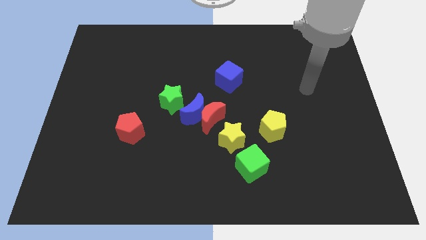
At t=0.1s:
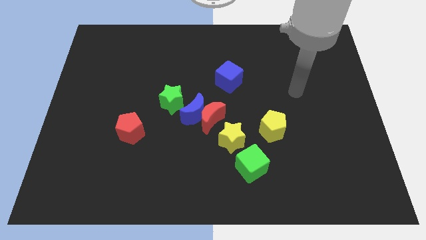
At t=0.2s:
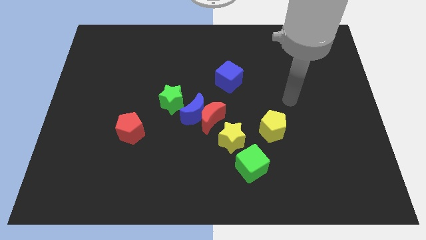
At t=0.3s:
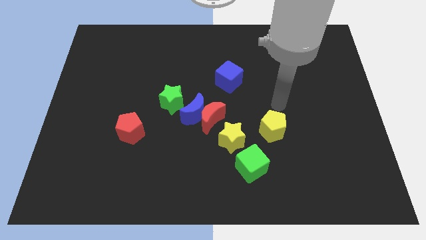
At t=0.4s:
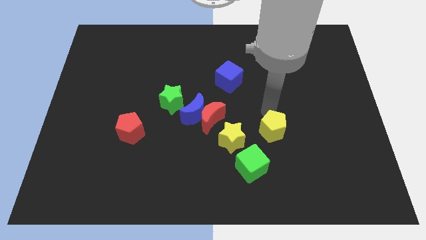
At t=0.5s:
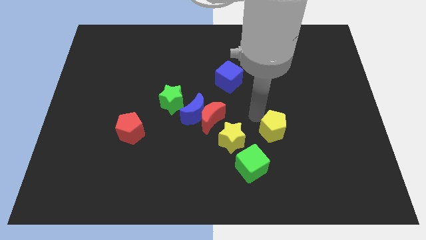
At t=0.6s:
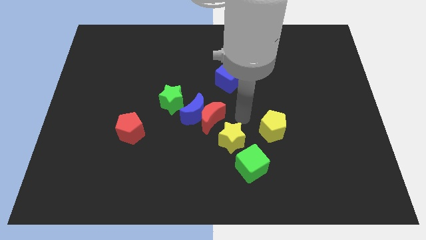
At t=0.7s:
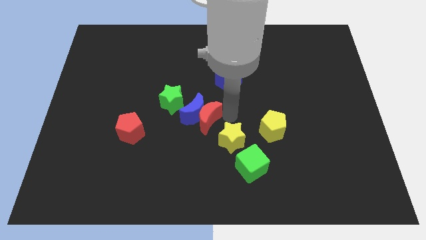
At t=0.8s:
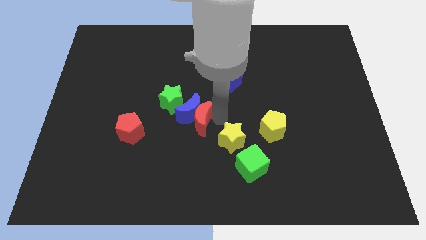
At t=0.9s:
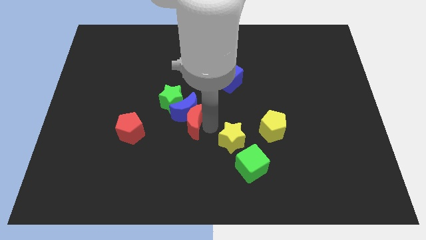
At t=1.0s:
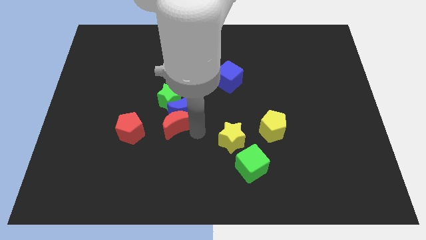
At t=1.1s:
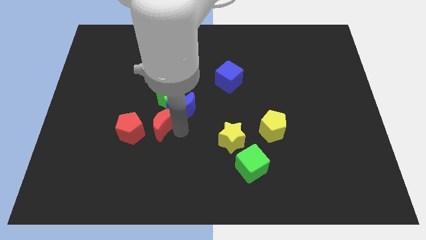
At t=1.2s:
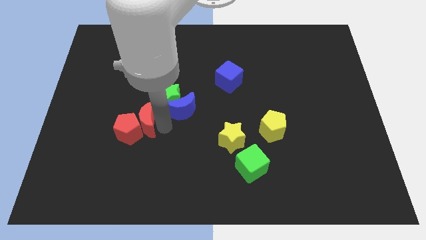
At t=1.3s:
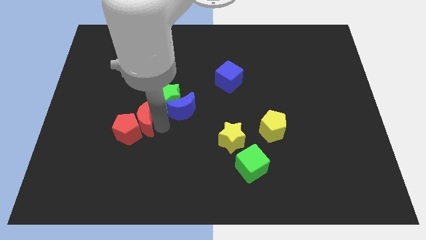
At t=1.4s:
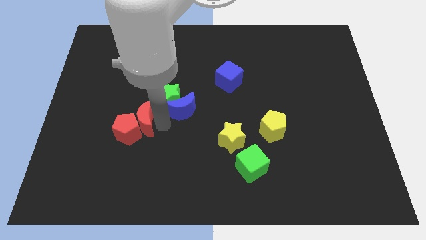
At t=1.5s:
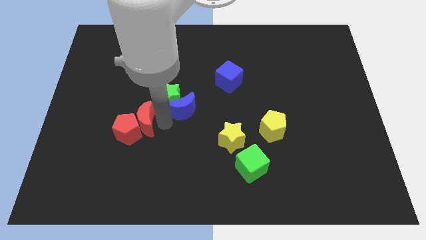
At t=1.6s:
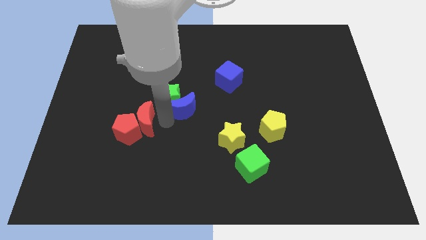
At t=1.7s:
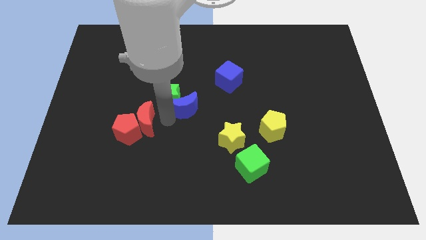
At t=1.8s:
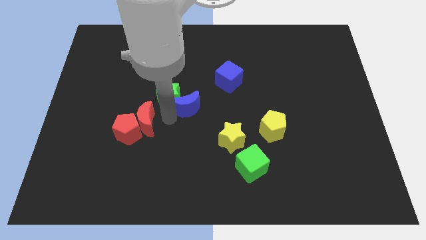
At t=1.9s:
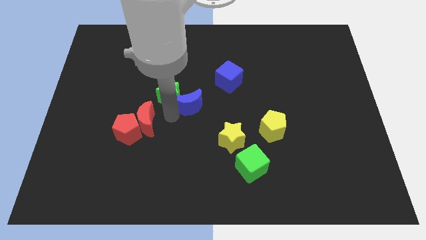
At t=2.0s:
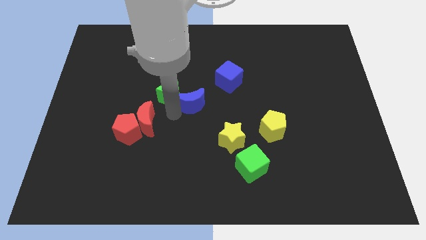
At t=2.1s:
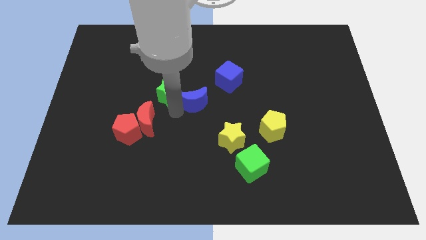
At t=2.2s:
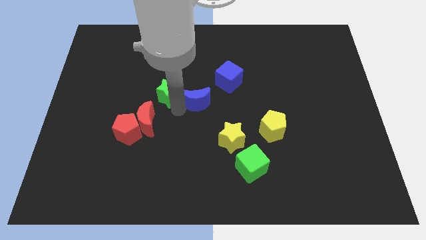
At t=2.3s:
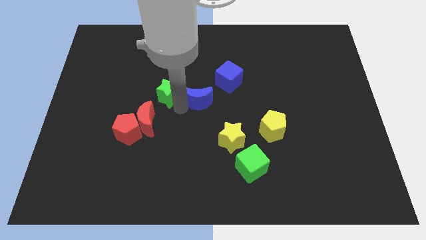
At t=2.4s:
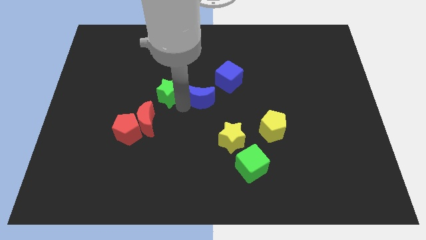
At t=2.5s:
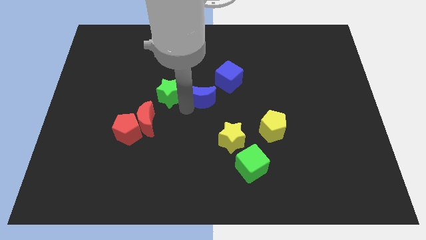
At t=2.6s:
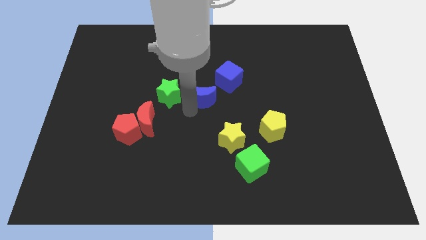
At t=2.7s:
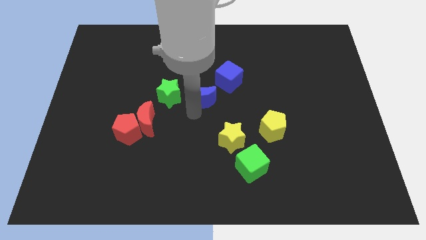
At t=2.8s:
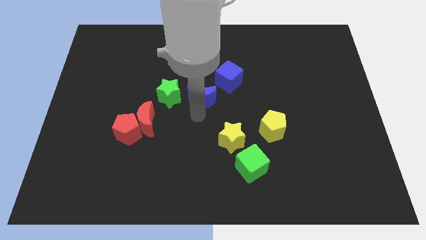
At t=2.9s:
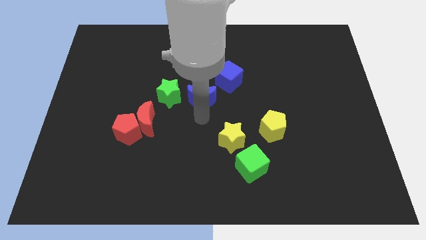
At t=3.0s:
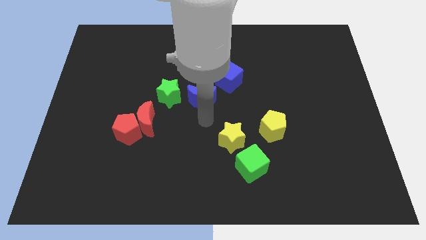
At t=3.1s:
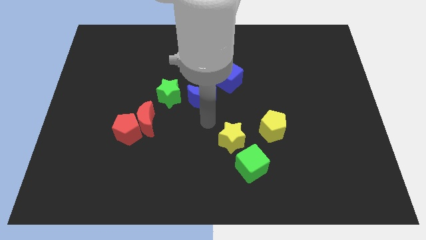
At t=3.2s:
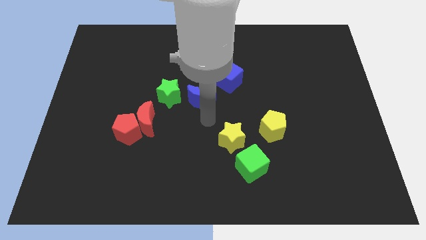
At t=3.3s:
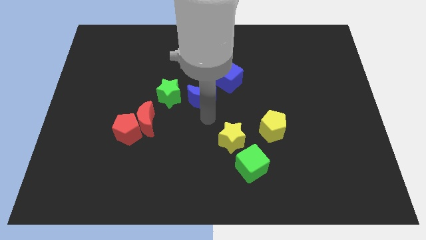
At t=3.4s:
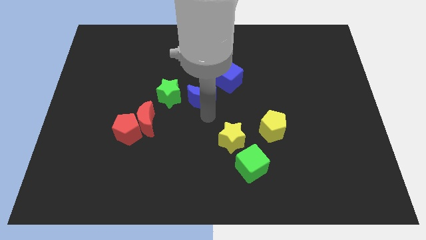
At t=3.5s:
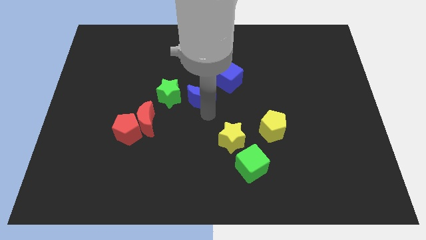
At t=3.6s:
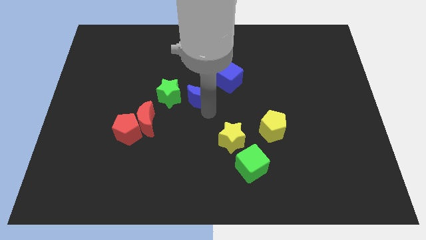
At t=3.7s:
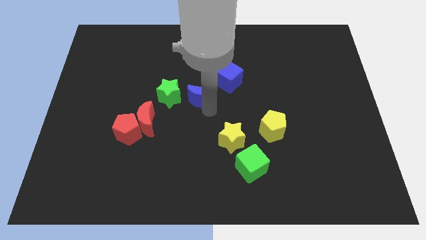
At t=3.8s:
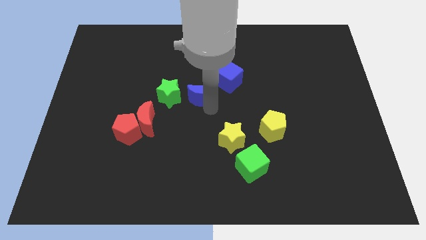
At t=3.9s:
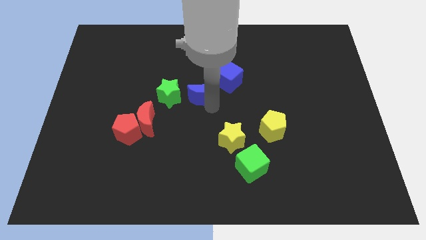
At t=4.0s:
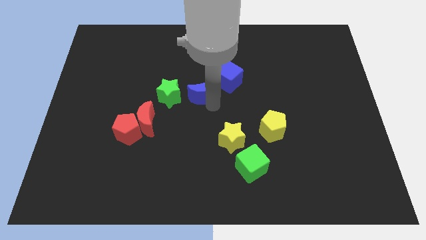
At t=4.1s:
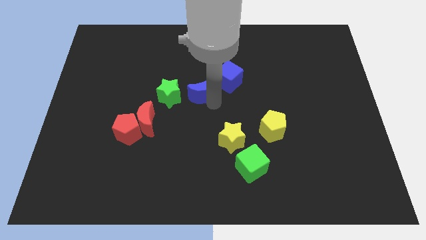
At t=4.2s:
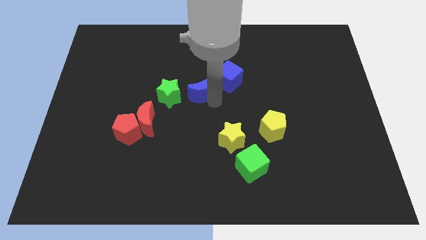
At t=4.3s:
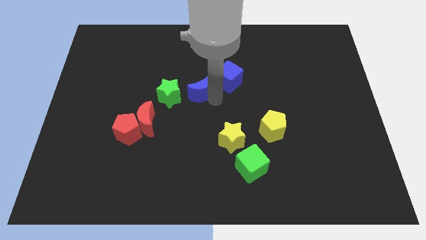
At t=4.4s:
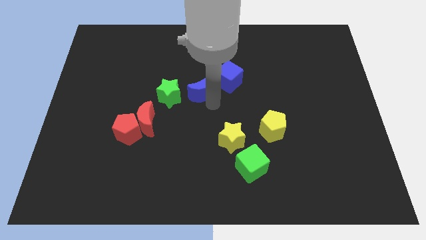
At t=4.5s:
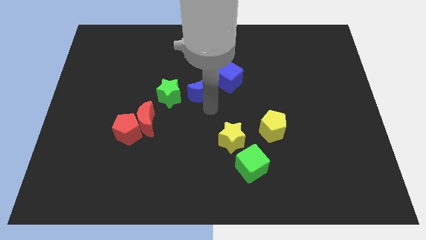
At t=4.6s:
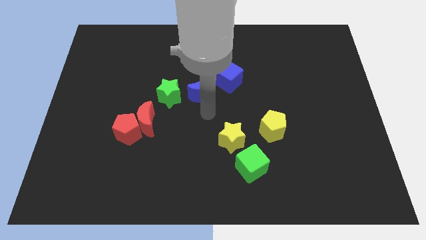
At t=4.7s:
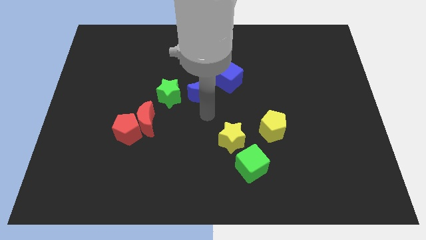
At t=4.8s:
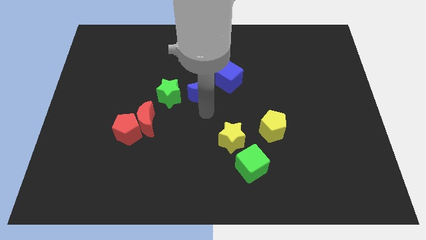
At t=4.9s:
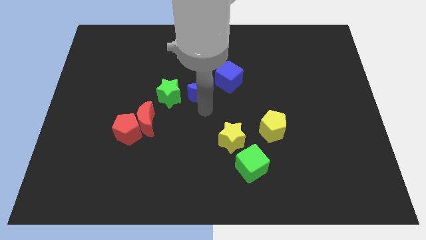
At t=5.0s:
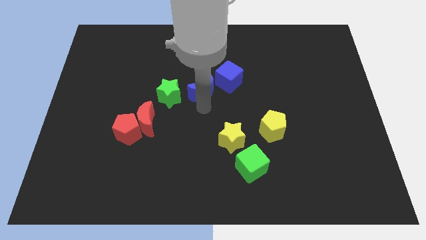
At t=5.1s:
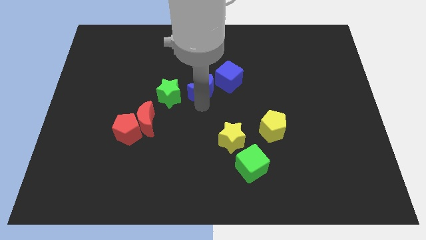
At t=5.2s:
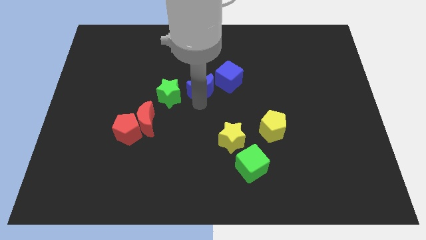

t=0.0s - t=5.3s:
push the blue moon a little bit upwards

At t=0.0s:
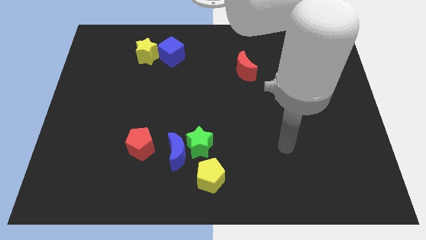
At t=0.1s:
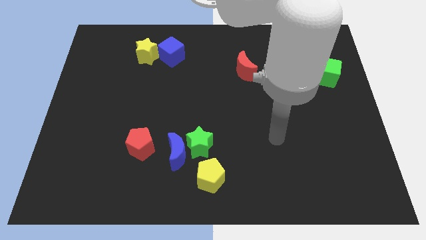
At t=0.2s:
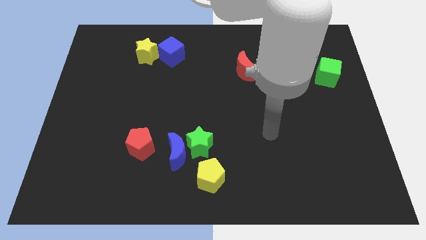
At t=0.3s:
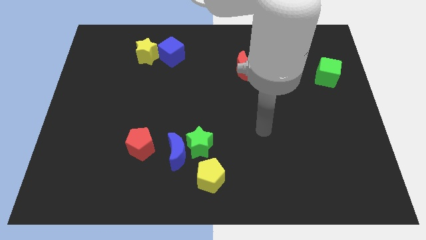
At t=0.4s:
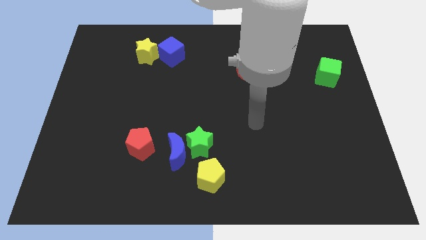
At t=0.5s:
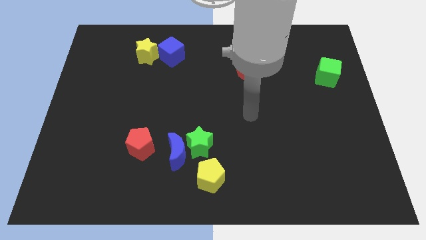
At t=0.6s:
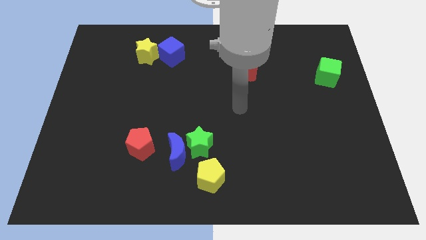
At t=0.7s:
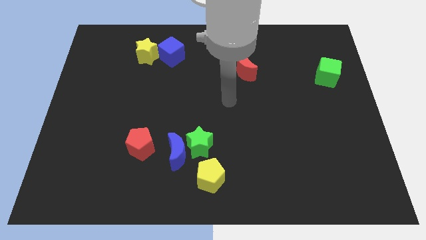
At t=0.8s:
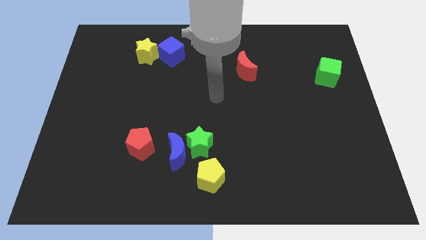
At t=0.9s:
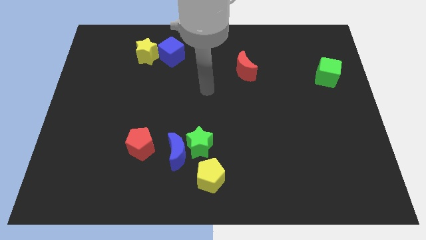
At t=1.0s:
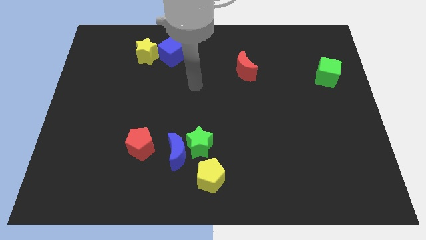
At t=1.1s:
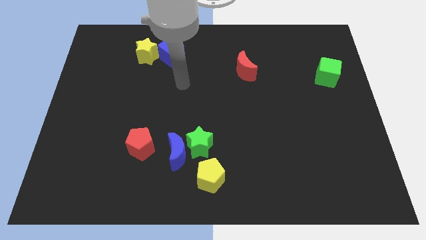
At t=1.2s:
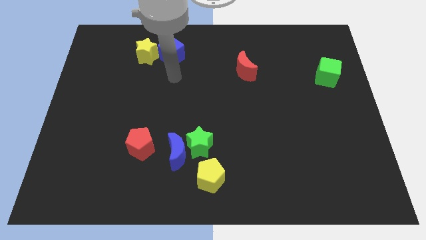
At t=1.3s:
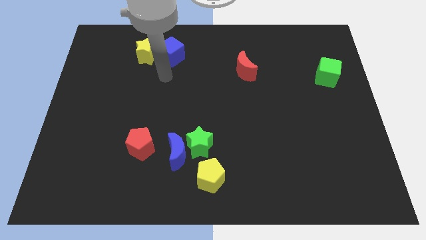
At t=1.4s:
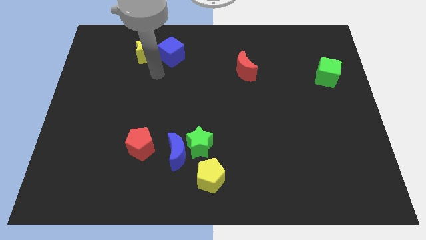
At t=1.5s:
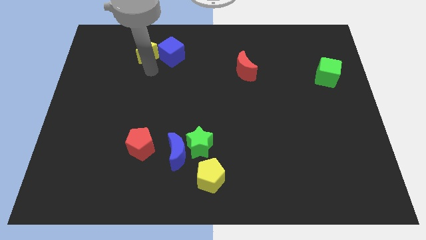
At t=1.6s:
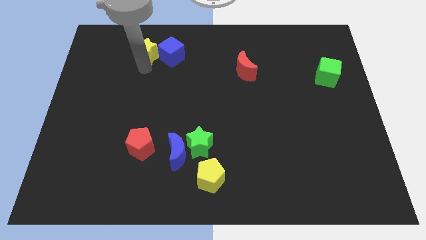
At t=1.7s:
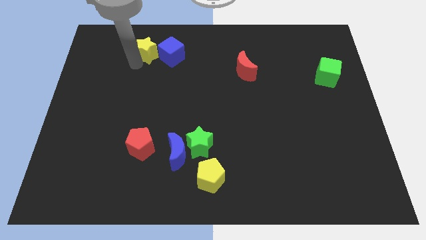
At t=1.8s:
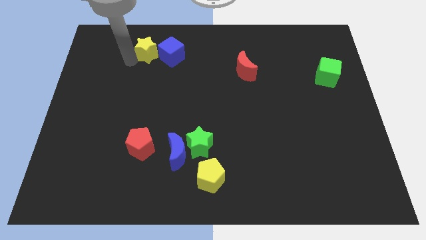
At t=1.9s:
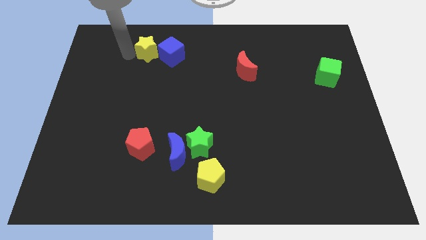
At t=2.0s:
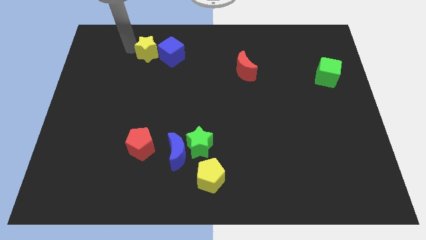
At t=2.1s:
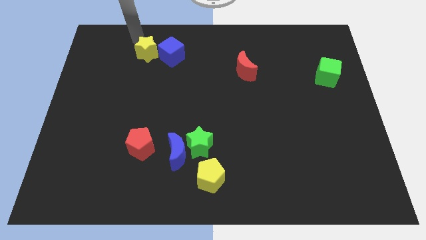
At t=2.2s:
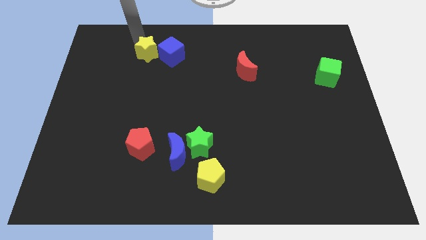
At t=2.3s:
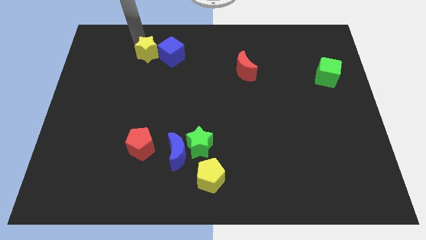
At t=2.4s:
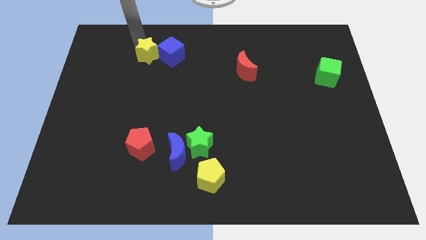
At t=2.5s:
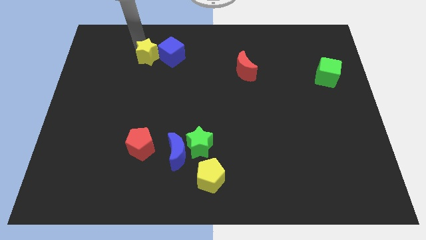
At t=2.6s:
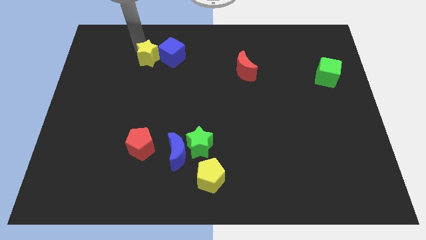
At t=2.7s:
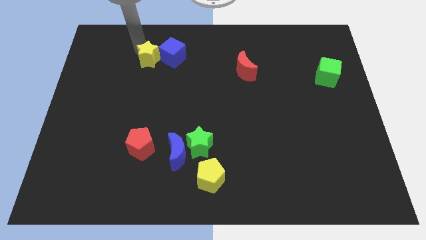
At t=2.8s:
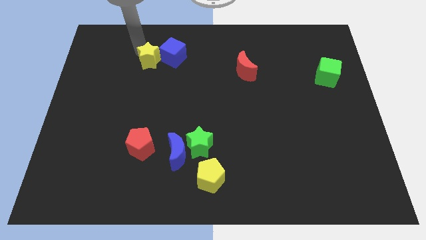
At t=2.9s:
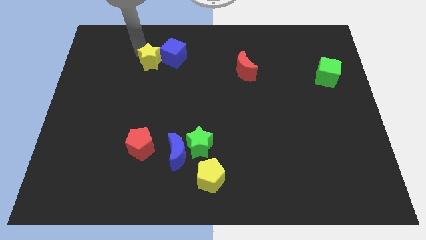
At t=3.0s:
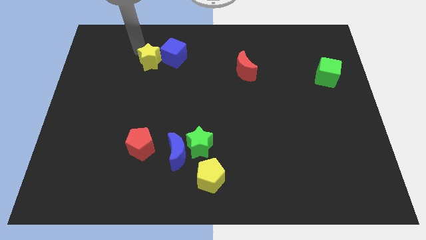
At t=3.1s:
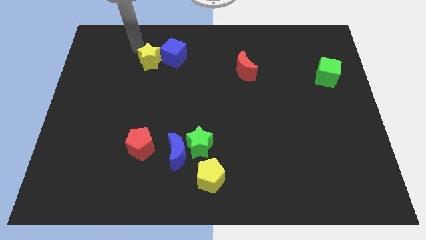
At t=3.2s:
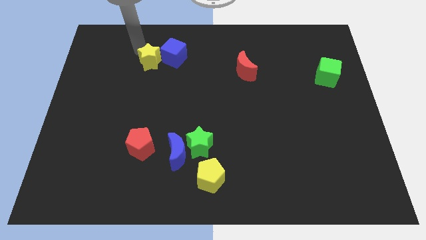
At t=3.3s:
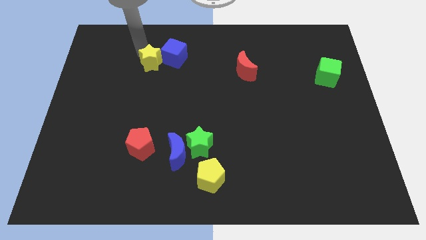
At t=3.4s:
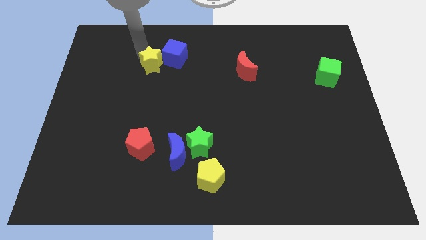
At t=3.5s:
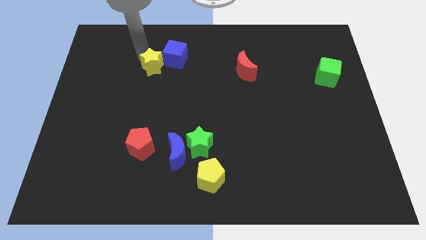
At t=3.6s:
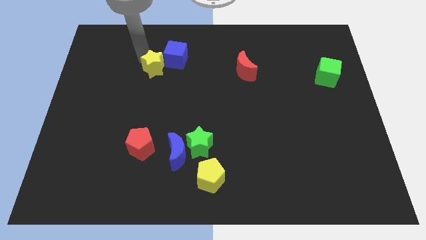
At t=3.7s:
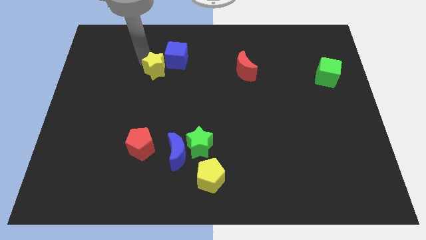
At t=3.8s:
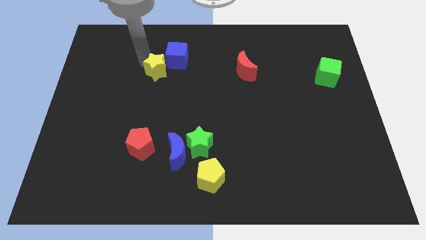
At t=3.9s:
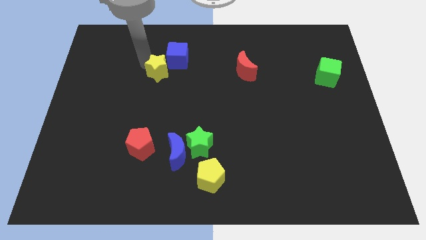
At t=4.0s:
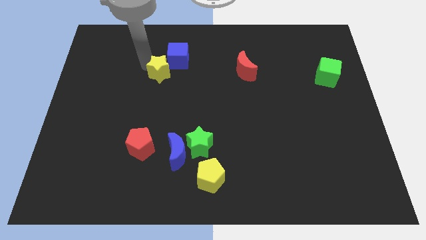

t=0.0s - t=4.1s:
slide the yellow star slightly diagonally downwards and right
